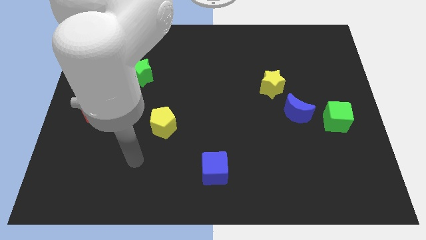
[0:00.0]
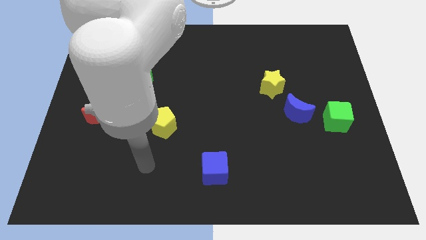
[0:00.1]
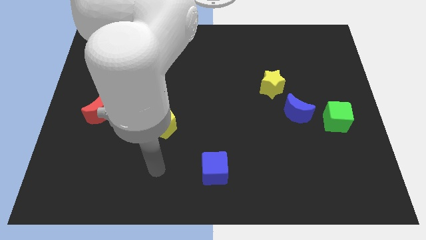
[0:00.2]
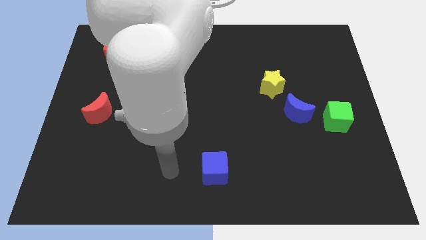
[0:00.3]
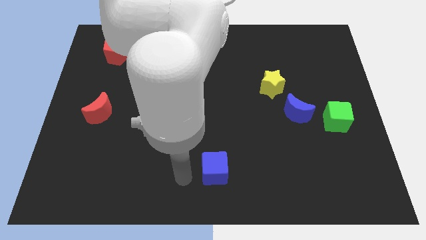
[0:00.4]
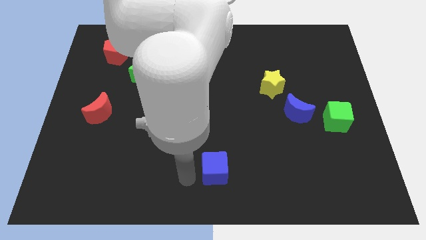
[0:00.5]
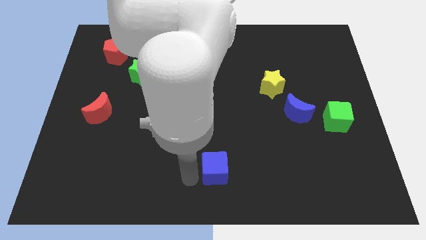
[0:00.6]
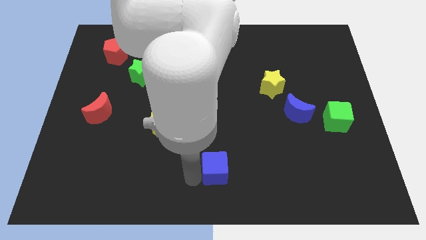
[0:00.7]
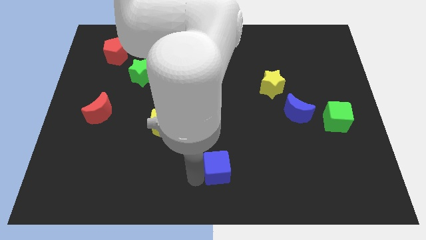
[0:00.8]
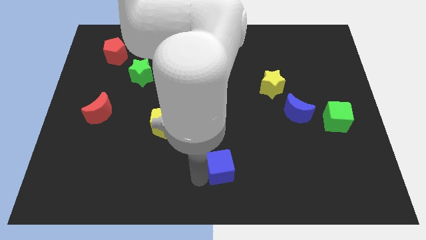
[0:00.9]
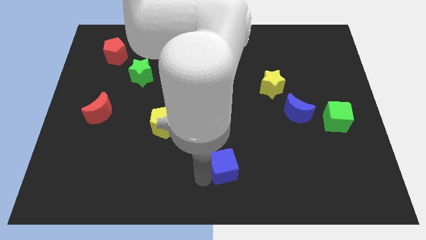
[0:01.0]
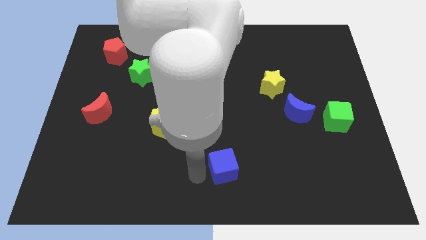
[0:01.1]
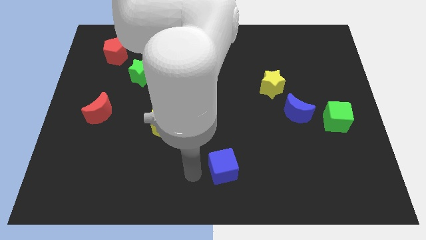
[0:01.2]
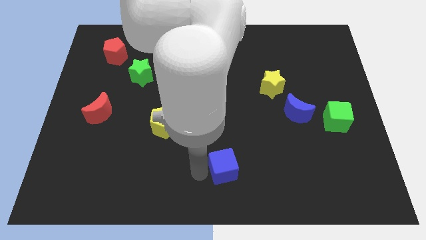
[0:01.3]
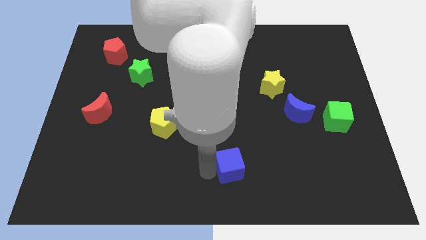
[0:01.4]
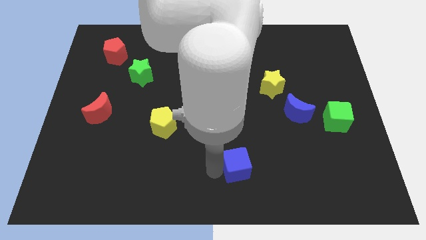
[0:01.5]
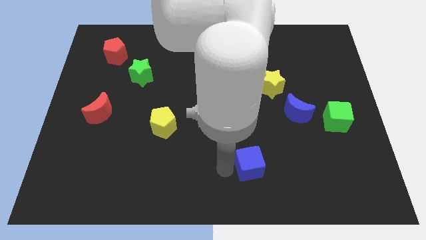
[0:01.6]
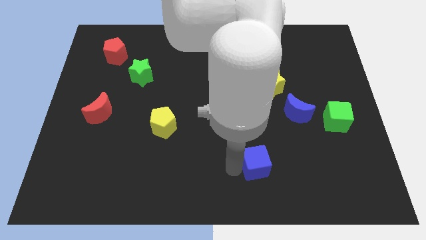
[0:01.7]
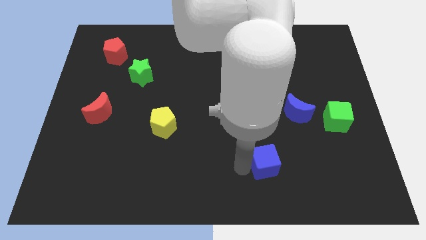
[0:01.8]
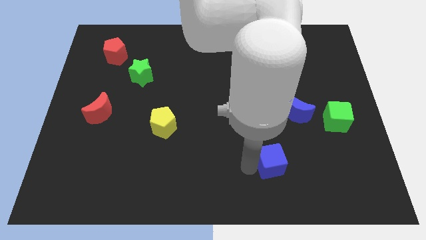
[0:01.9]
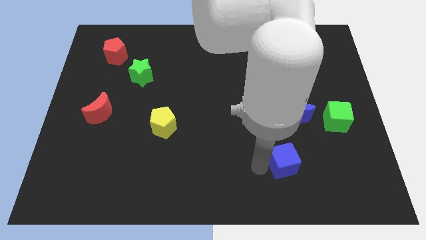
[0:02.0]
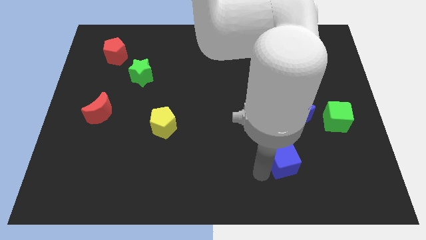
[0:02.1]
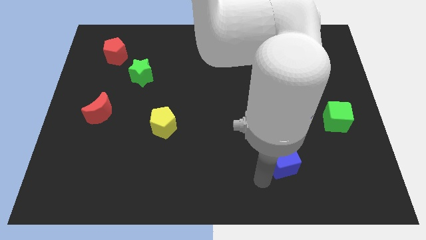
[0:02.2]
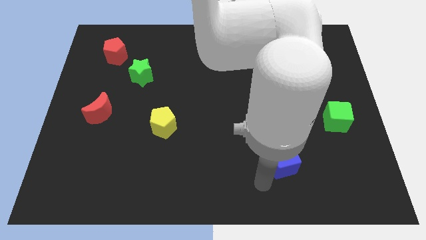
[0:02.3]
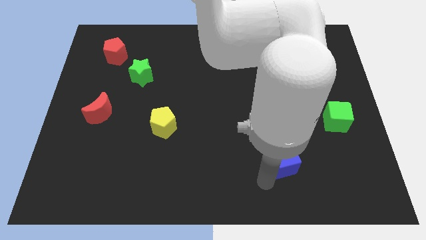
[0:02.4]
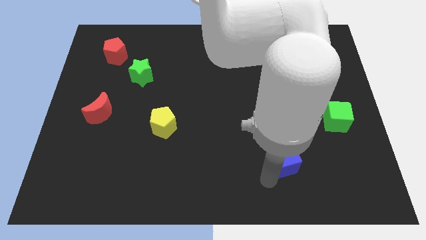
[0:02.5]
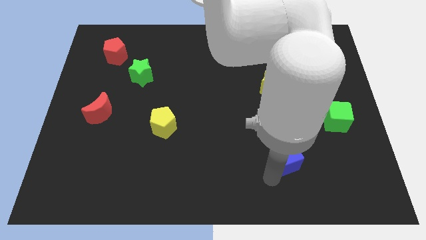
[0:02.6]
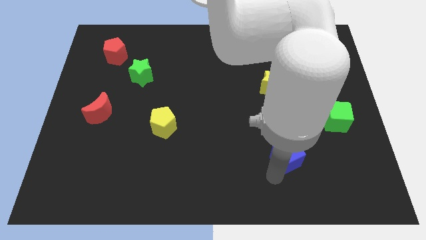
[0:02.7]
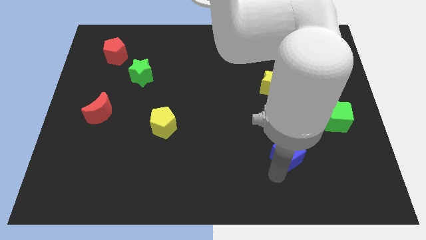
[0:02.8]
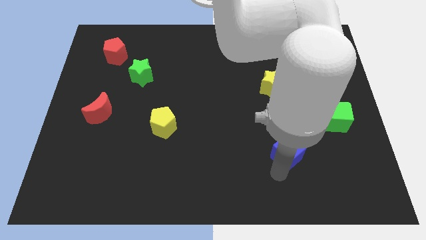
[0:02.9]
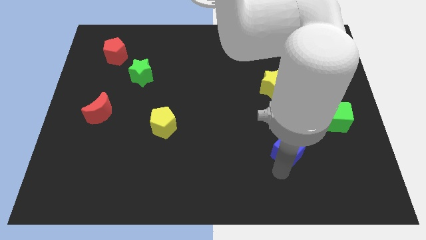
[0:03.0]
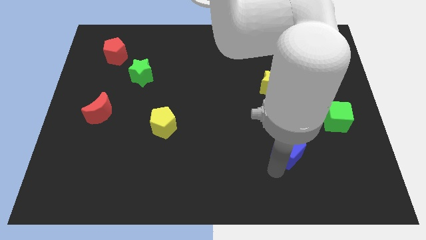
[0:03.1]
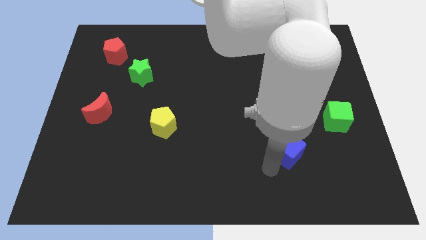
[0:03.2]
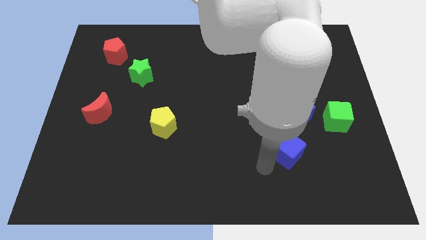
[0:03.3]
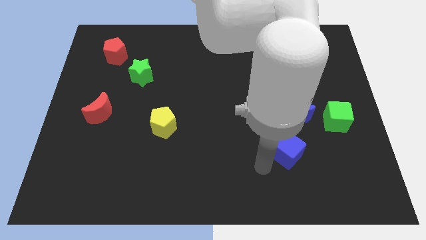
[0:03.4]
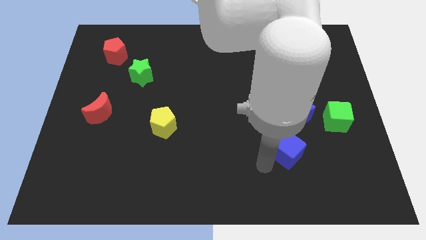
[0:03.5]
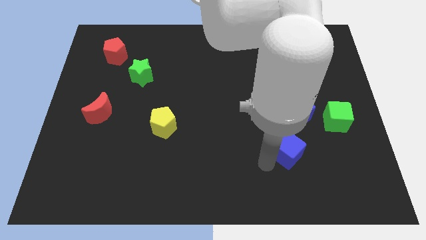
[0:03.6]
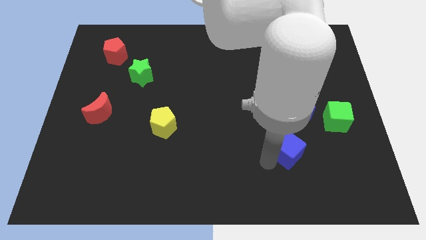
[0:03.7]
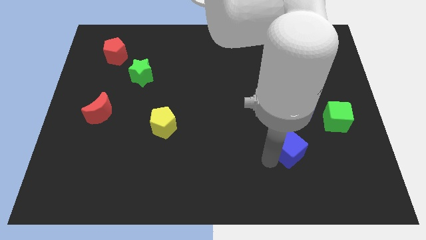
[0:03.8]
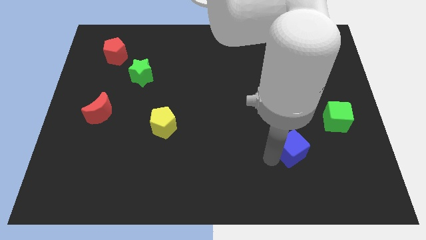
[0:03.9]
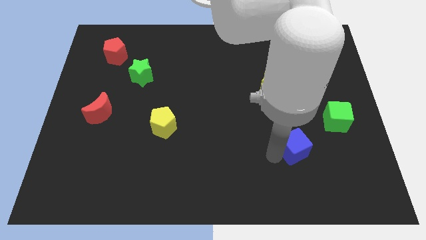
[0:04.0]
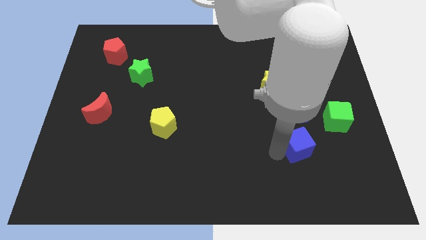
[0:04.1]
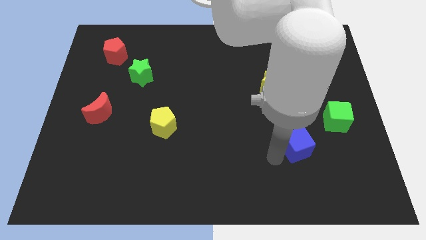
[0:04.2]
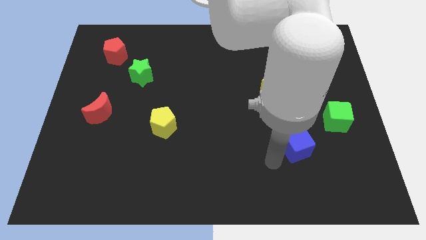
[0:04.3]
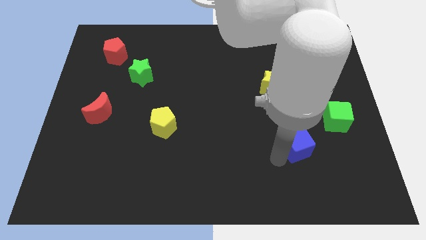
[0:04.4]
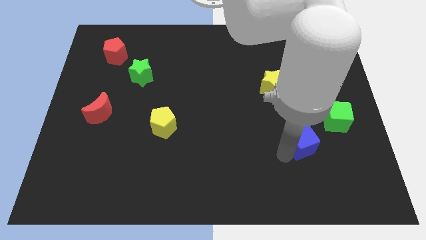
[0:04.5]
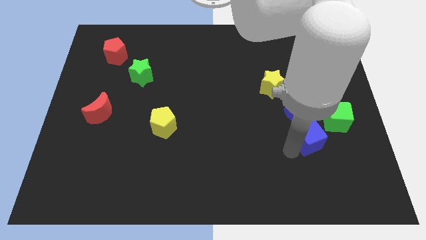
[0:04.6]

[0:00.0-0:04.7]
slide the blue cube to the bottom right side of the blue moon

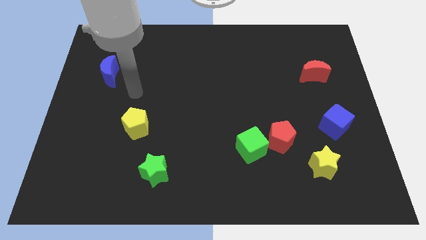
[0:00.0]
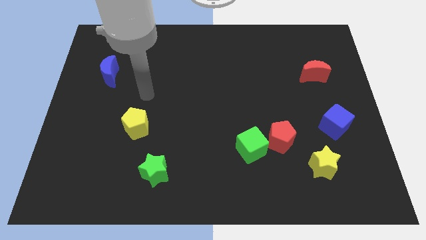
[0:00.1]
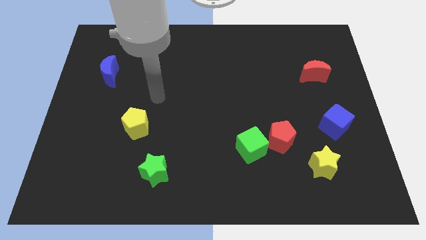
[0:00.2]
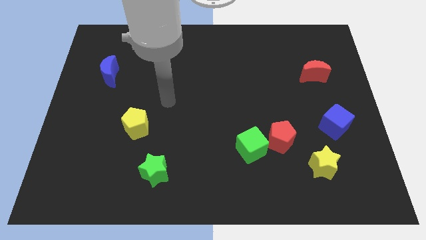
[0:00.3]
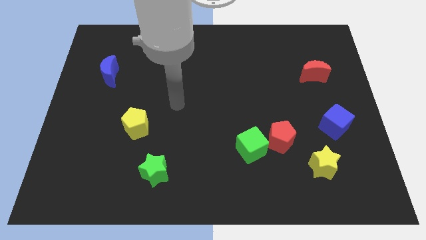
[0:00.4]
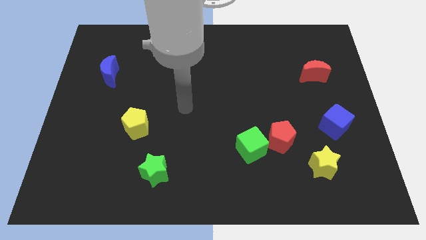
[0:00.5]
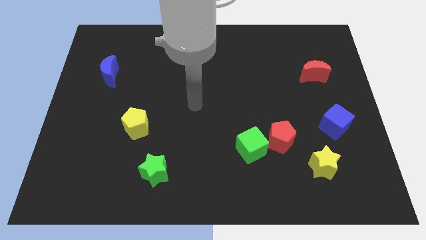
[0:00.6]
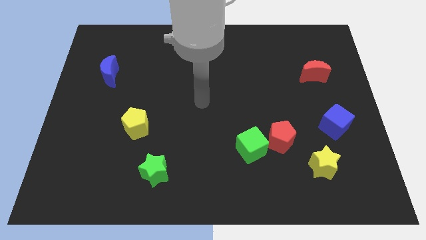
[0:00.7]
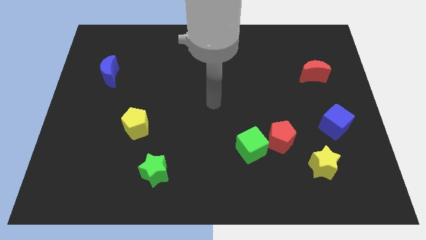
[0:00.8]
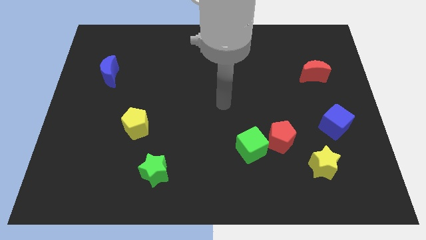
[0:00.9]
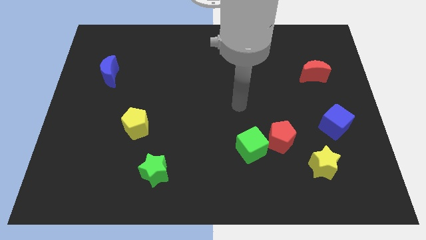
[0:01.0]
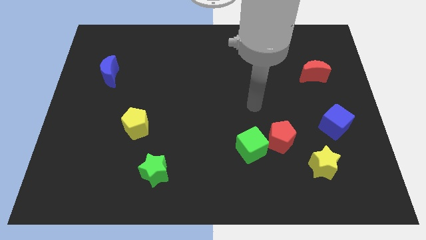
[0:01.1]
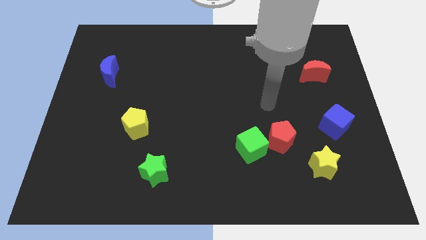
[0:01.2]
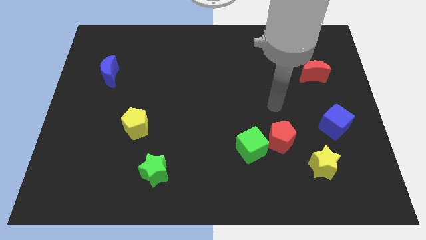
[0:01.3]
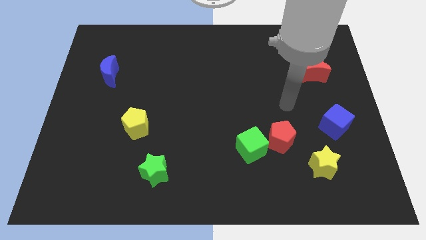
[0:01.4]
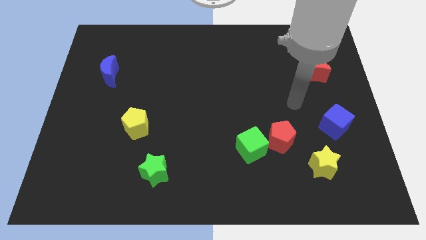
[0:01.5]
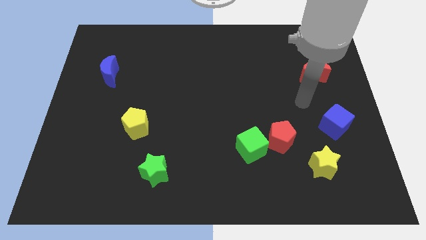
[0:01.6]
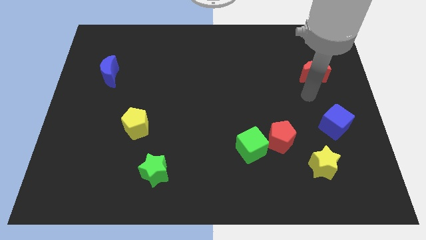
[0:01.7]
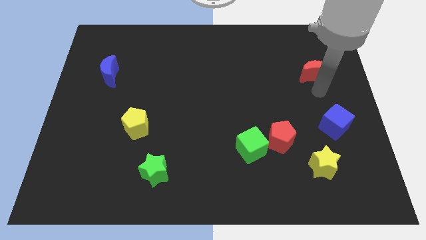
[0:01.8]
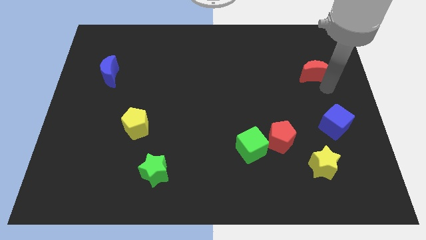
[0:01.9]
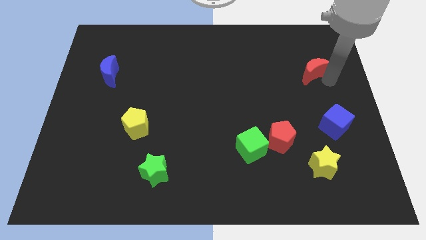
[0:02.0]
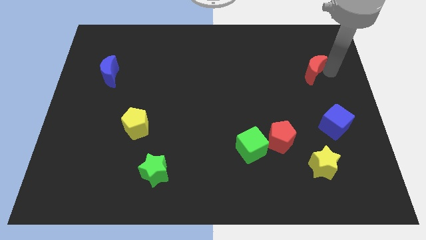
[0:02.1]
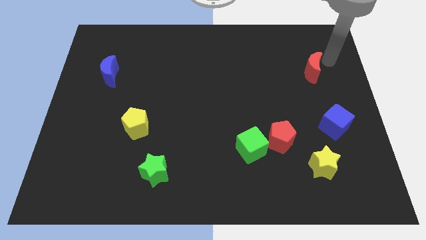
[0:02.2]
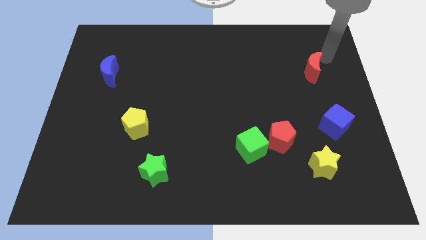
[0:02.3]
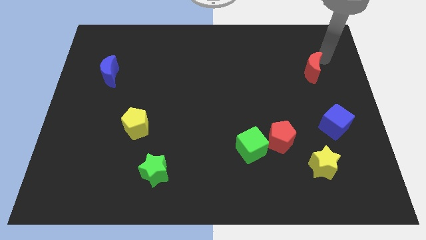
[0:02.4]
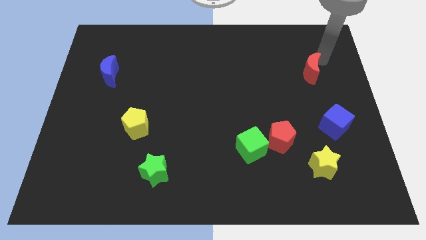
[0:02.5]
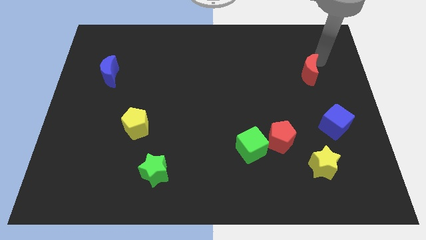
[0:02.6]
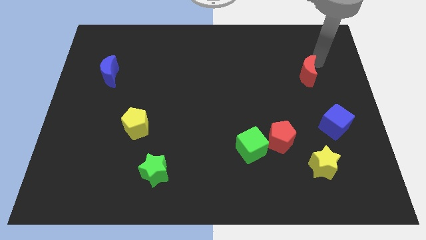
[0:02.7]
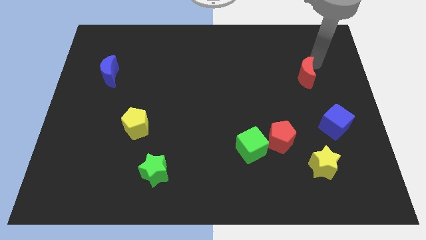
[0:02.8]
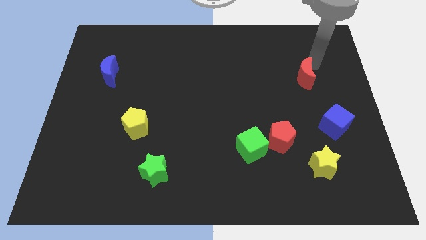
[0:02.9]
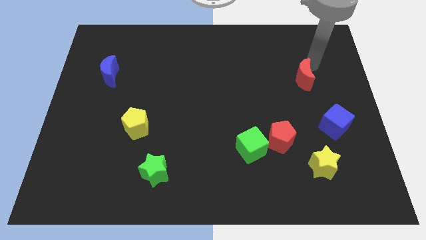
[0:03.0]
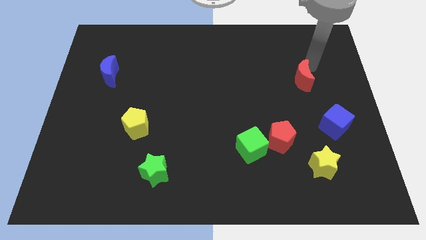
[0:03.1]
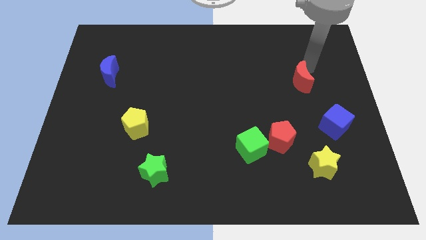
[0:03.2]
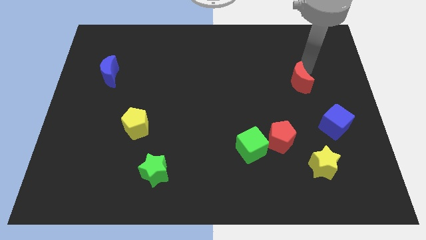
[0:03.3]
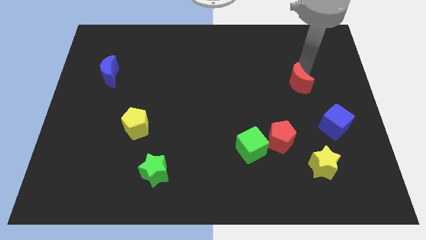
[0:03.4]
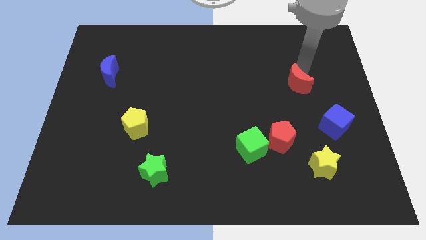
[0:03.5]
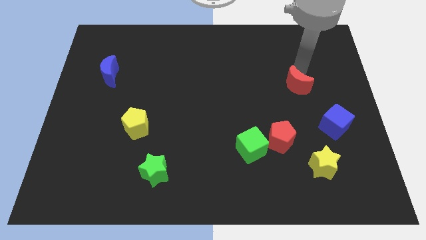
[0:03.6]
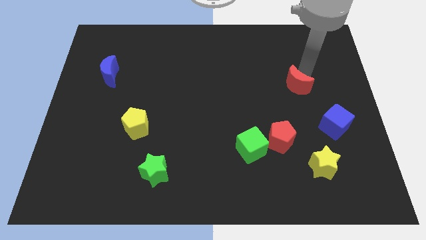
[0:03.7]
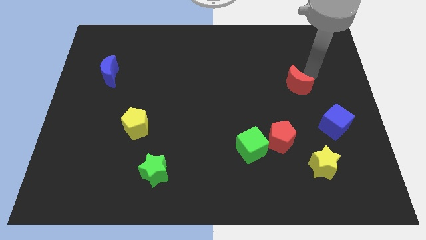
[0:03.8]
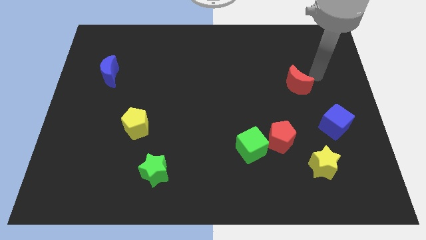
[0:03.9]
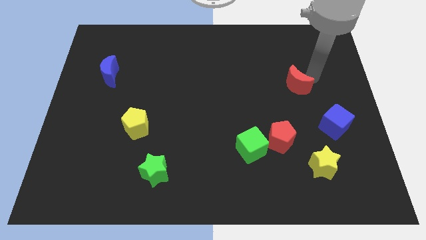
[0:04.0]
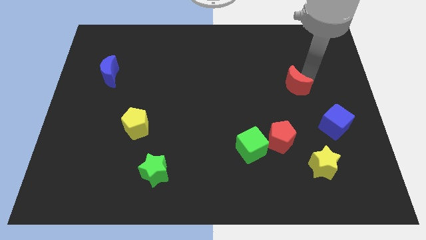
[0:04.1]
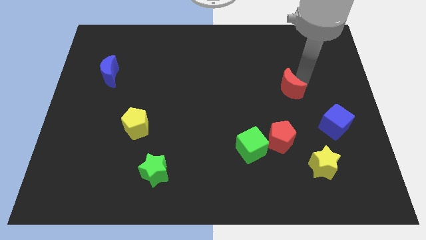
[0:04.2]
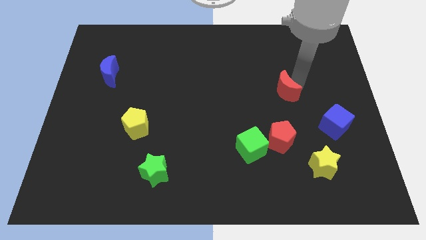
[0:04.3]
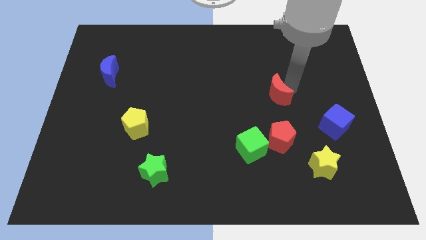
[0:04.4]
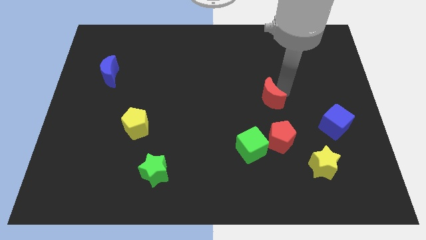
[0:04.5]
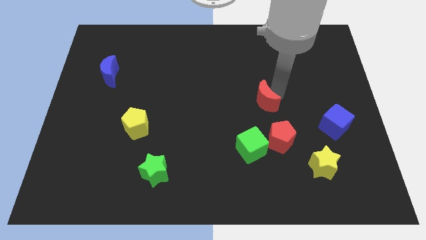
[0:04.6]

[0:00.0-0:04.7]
slide the red moon above the green cube
